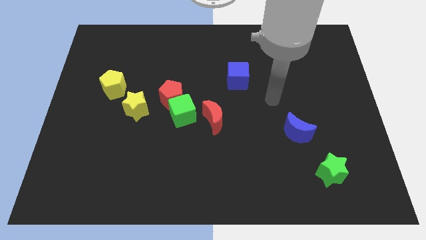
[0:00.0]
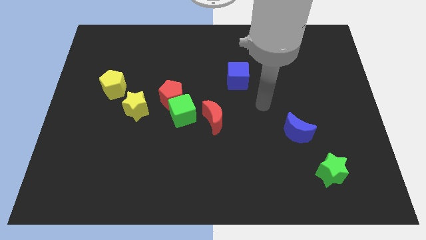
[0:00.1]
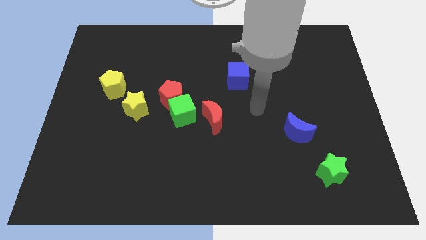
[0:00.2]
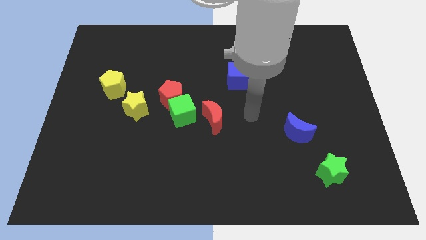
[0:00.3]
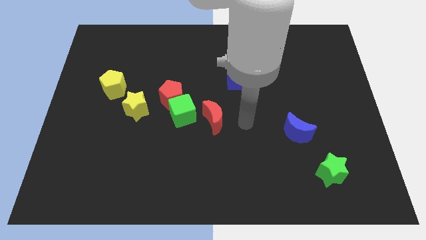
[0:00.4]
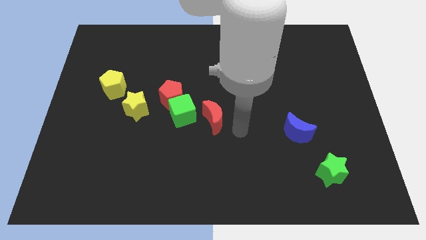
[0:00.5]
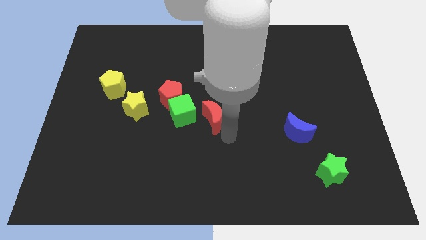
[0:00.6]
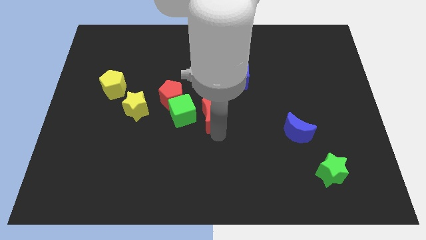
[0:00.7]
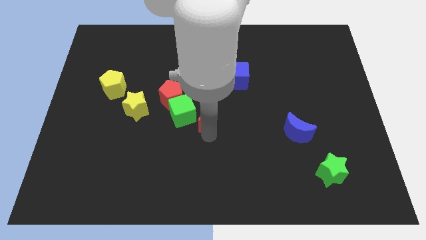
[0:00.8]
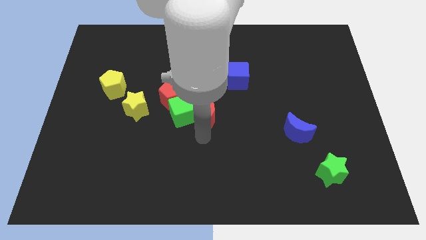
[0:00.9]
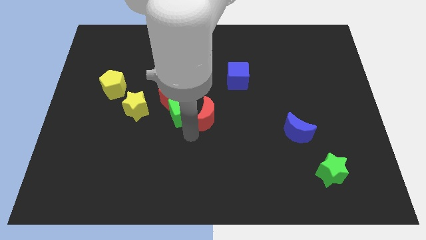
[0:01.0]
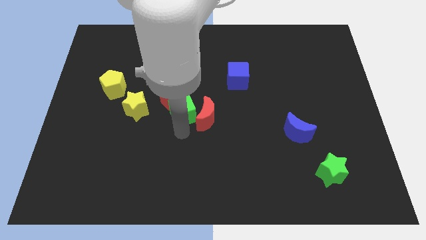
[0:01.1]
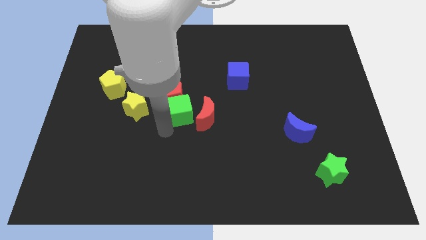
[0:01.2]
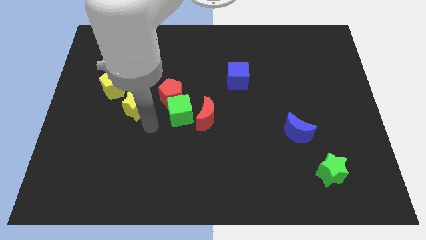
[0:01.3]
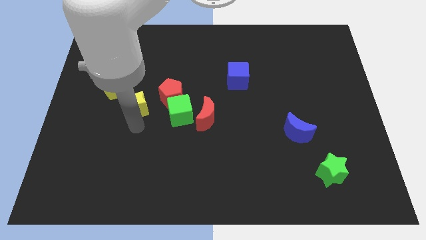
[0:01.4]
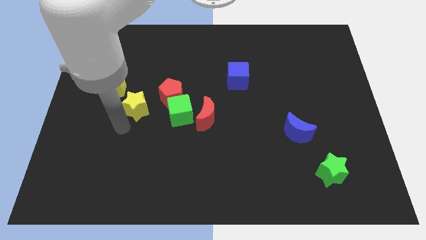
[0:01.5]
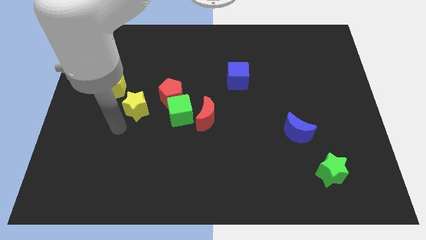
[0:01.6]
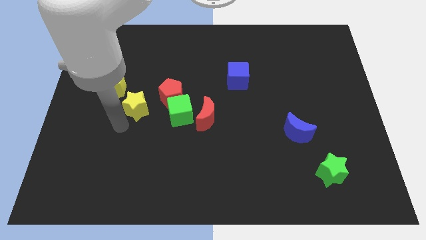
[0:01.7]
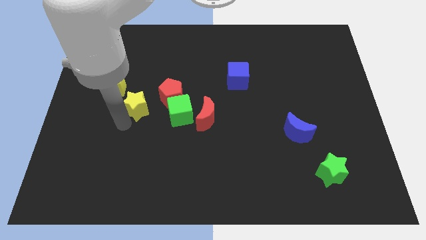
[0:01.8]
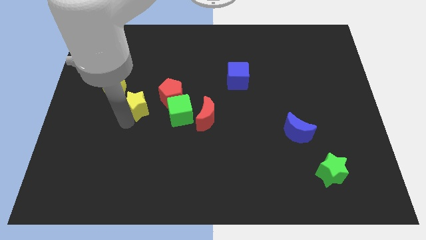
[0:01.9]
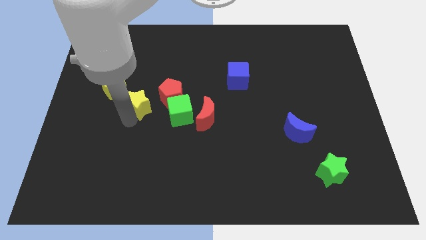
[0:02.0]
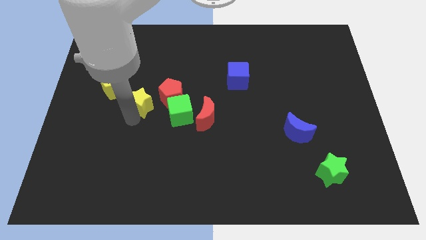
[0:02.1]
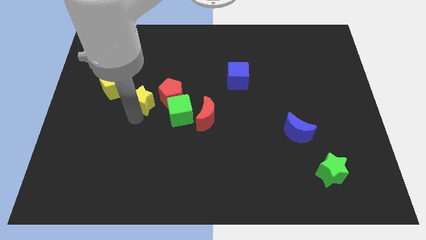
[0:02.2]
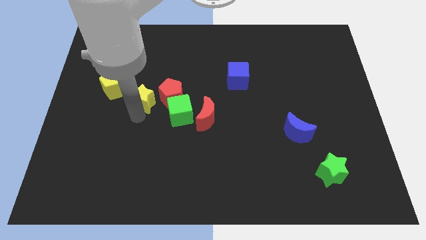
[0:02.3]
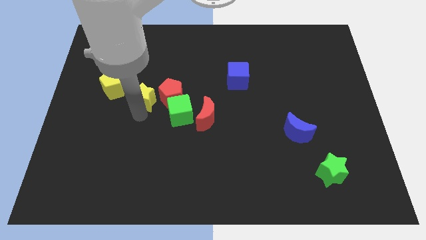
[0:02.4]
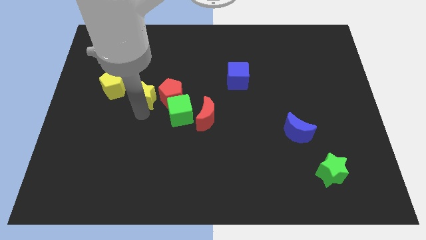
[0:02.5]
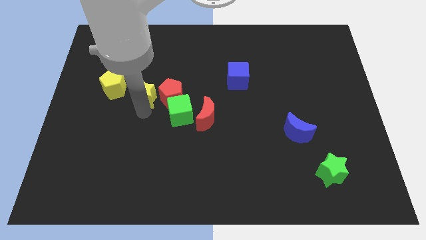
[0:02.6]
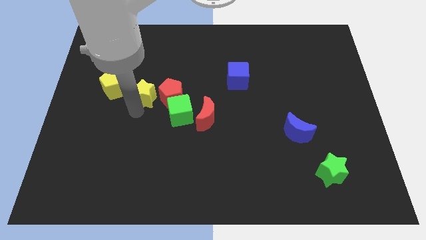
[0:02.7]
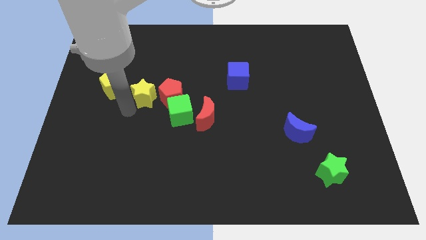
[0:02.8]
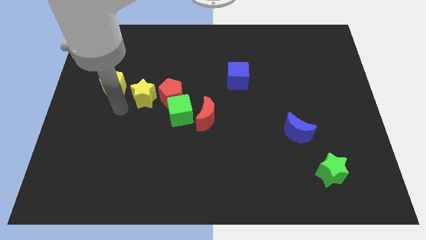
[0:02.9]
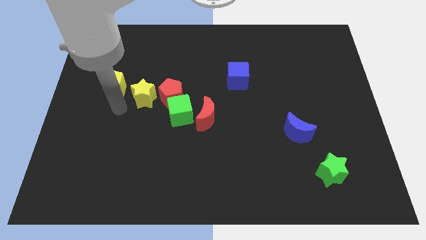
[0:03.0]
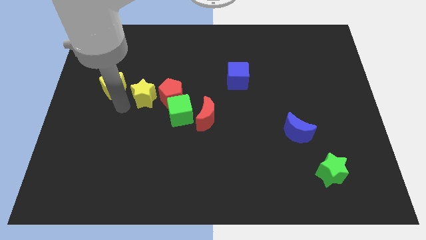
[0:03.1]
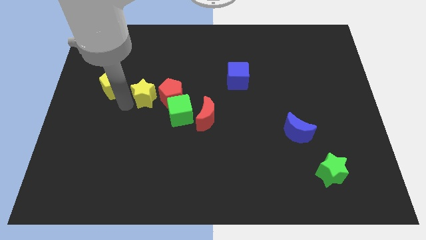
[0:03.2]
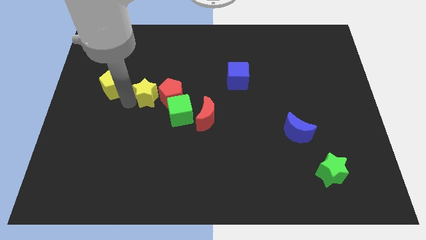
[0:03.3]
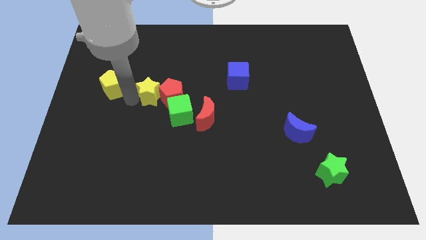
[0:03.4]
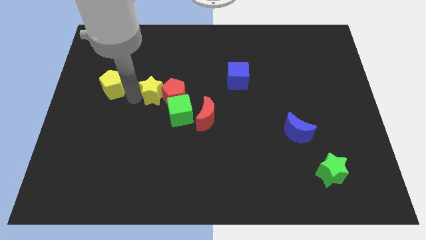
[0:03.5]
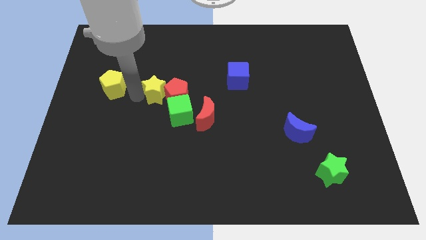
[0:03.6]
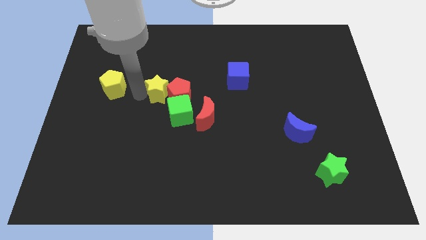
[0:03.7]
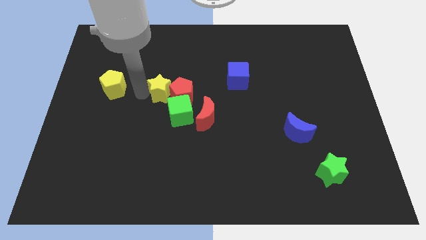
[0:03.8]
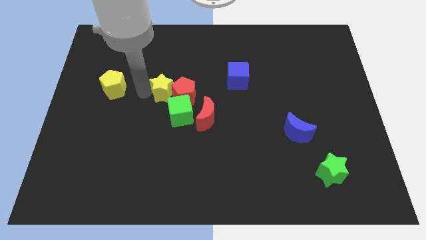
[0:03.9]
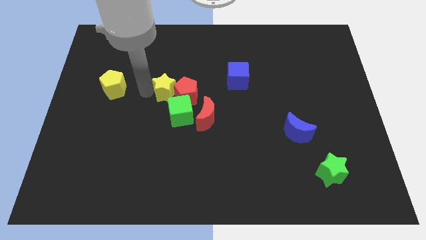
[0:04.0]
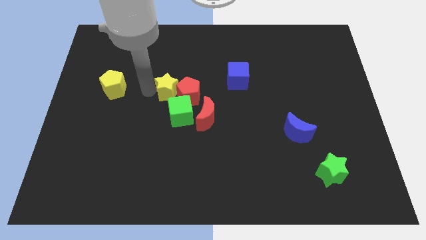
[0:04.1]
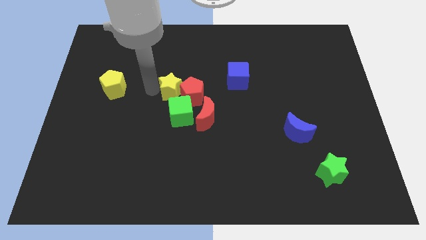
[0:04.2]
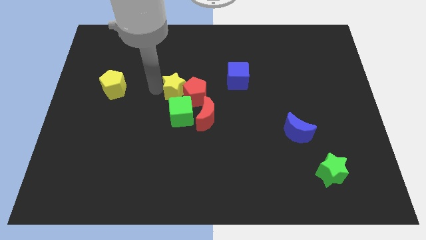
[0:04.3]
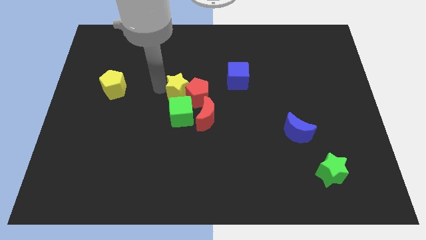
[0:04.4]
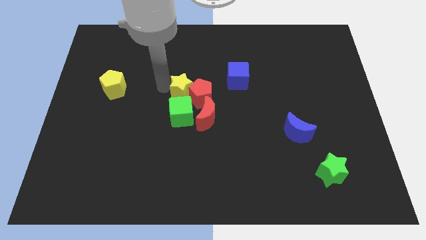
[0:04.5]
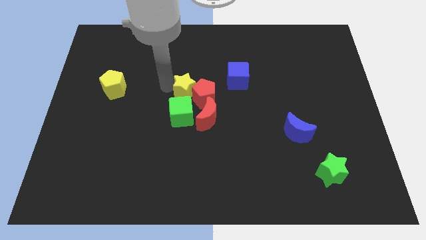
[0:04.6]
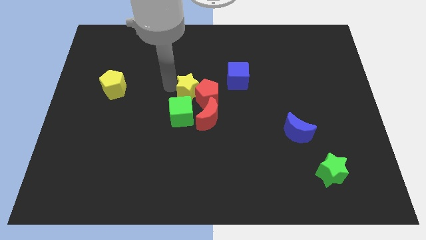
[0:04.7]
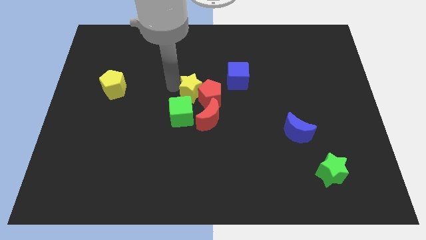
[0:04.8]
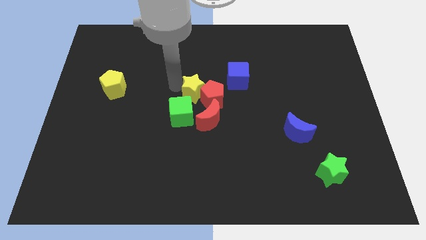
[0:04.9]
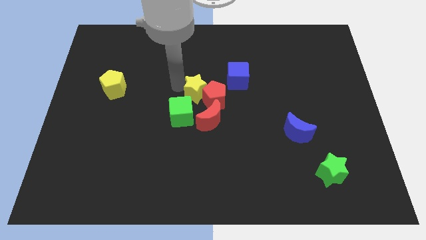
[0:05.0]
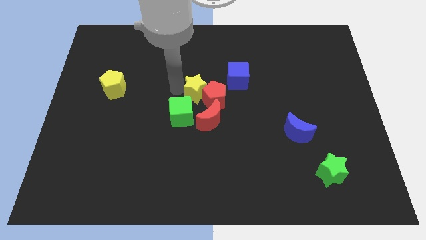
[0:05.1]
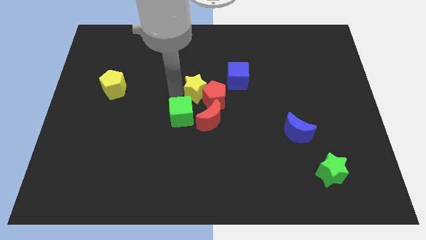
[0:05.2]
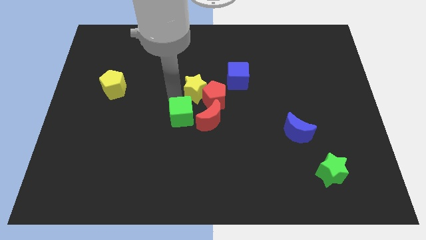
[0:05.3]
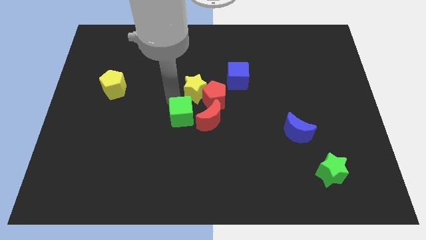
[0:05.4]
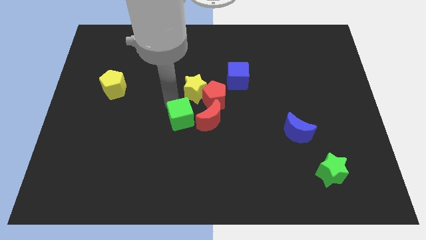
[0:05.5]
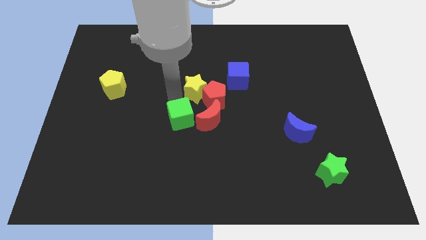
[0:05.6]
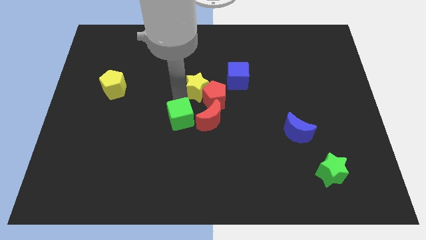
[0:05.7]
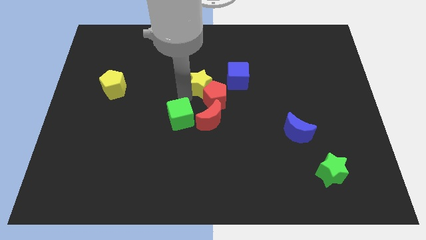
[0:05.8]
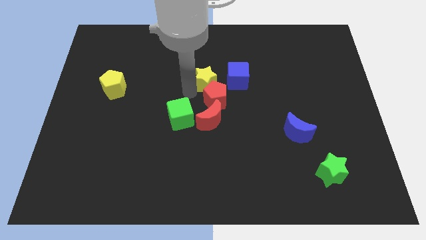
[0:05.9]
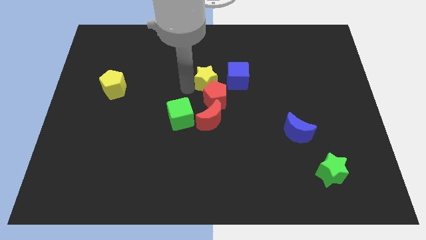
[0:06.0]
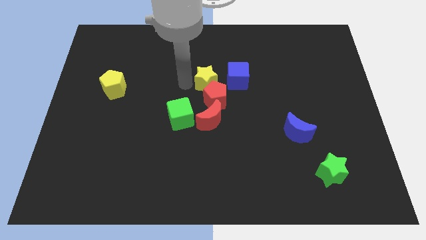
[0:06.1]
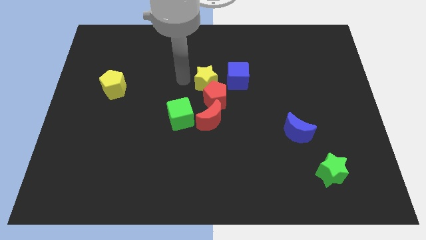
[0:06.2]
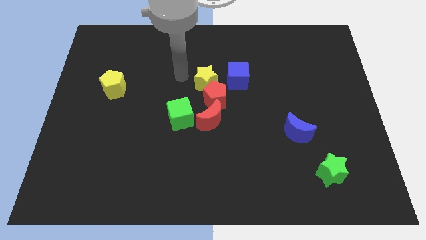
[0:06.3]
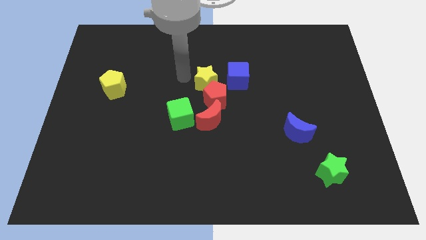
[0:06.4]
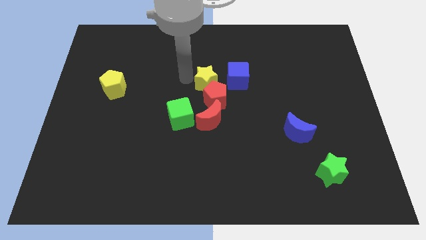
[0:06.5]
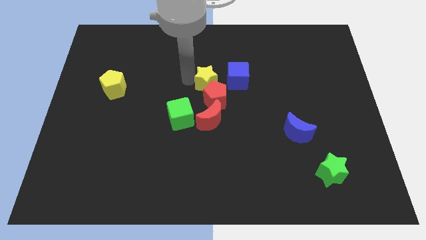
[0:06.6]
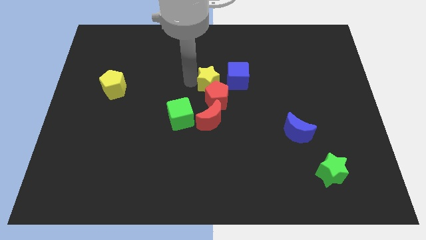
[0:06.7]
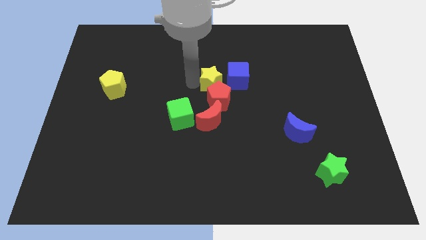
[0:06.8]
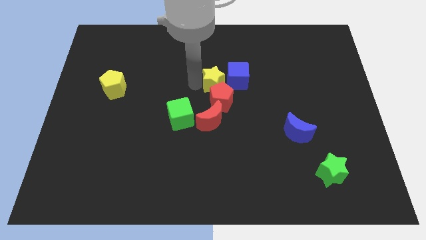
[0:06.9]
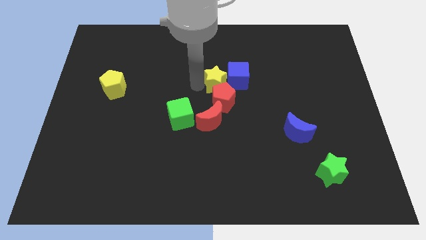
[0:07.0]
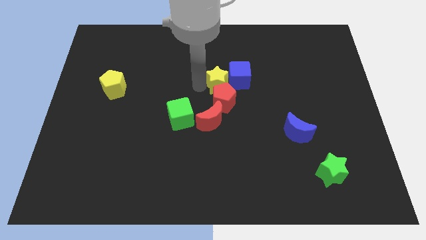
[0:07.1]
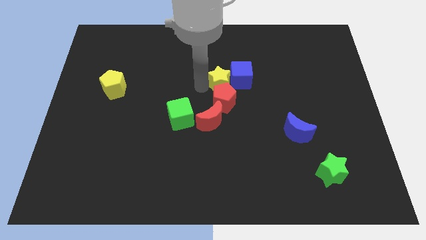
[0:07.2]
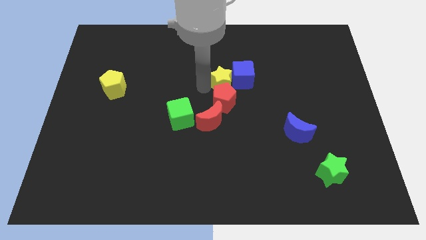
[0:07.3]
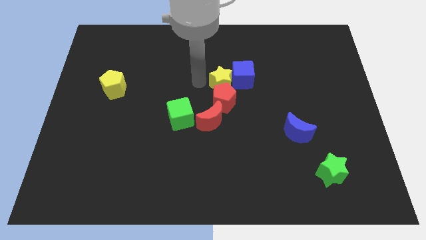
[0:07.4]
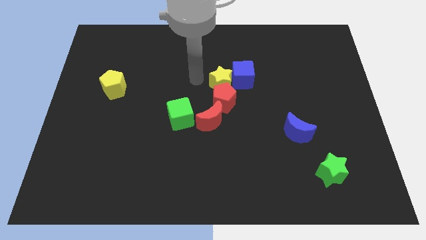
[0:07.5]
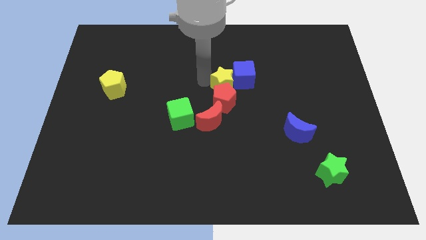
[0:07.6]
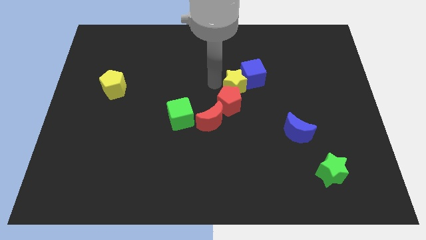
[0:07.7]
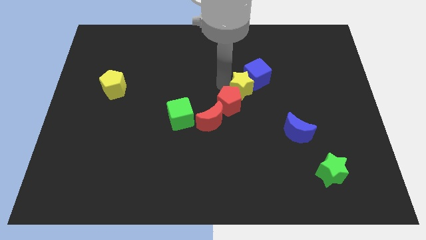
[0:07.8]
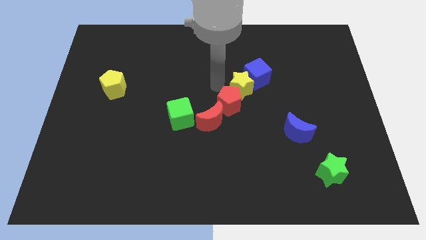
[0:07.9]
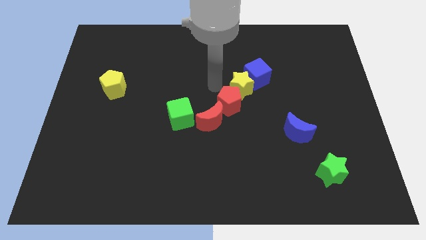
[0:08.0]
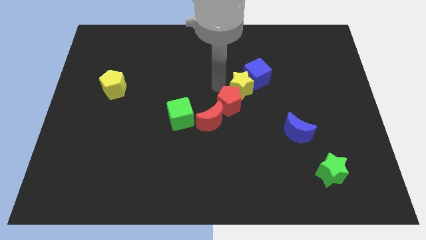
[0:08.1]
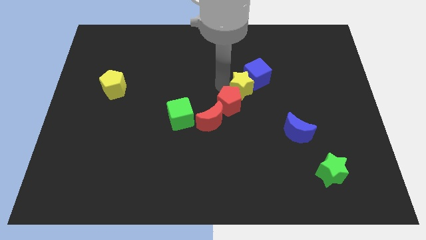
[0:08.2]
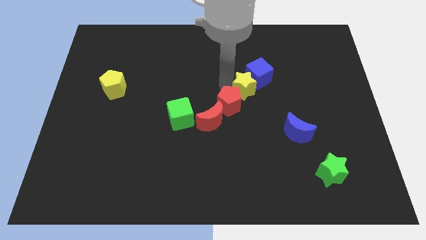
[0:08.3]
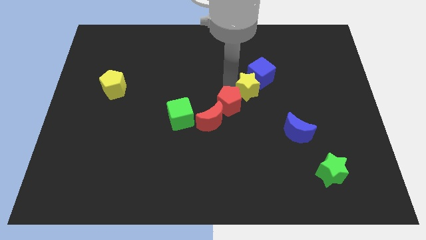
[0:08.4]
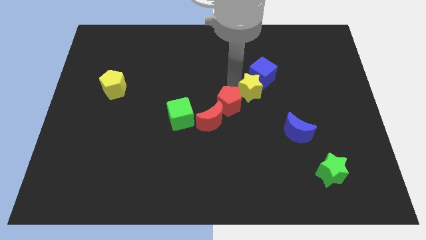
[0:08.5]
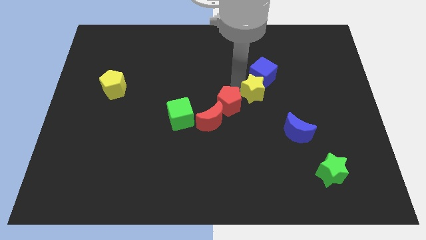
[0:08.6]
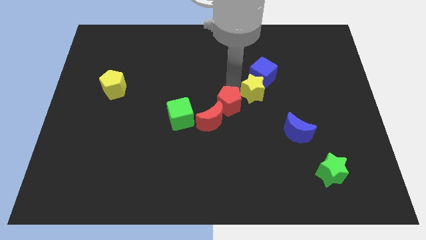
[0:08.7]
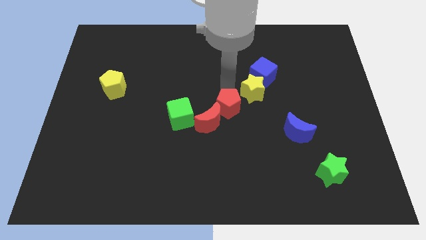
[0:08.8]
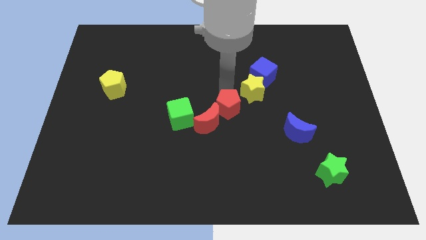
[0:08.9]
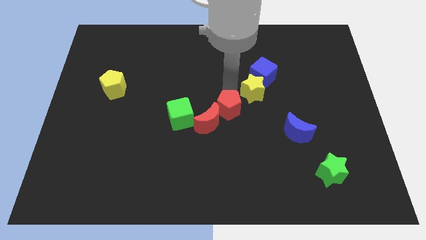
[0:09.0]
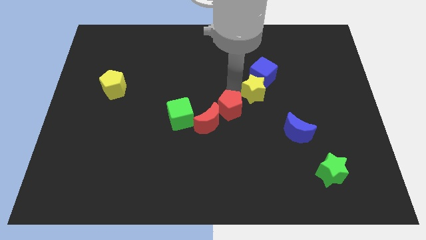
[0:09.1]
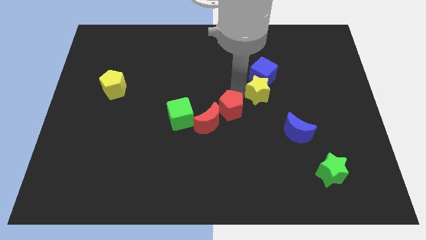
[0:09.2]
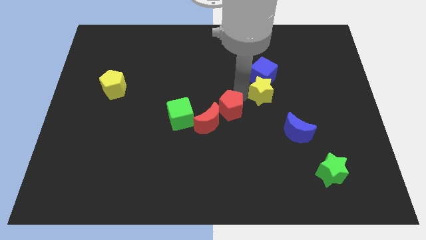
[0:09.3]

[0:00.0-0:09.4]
put the yellow star to the bottom right of the blue cube
